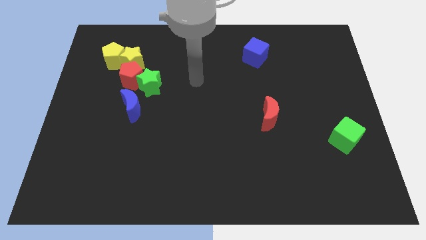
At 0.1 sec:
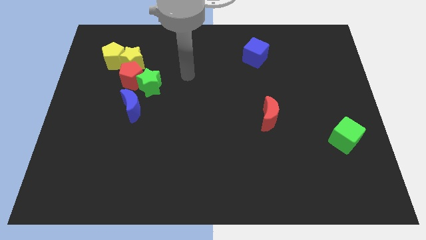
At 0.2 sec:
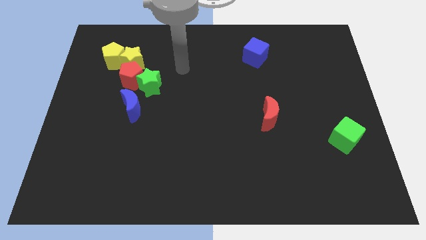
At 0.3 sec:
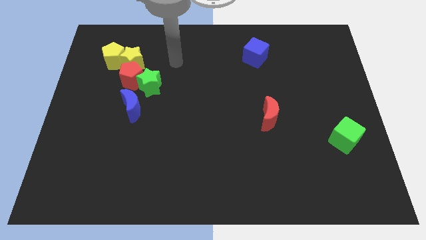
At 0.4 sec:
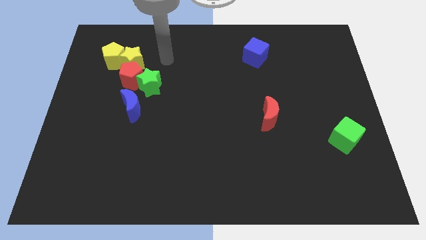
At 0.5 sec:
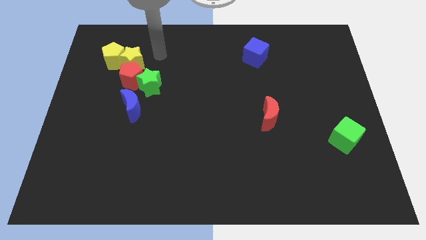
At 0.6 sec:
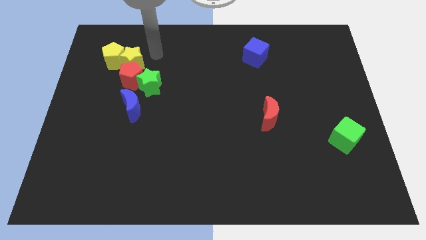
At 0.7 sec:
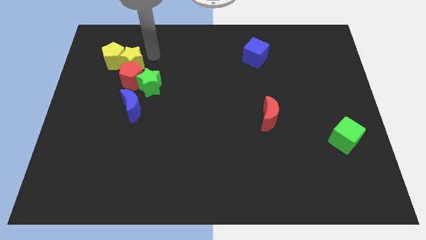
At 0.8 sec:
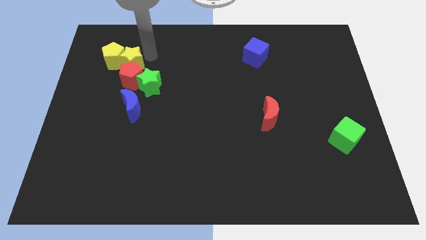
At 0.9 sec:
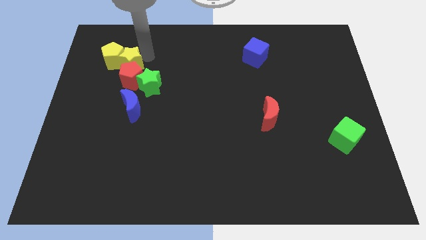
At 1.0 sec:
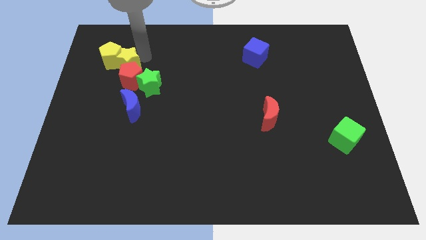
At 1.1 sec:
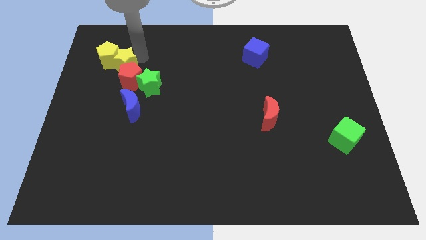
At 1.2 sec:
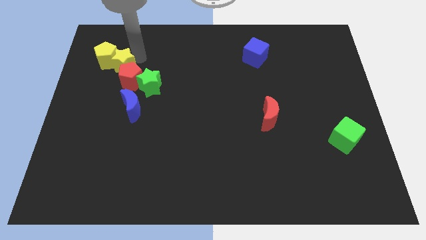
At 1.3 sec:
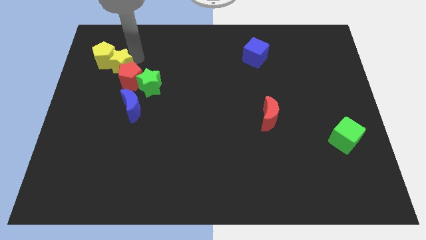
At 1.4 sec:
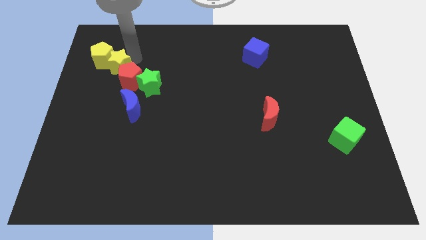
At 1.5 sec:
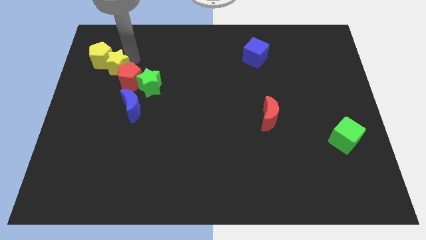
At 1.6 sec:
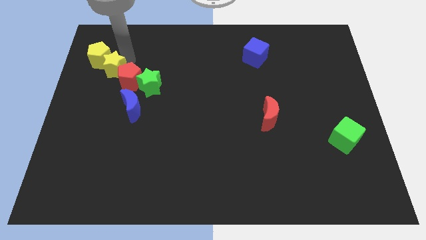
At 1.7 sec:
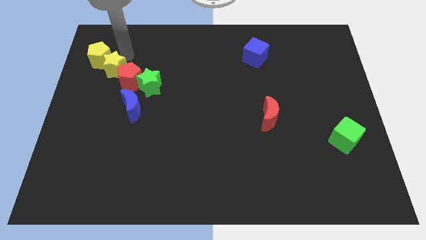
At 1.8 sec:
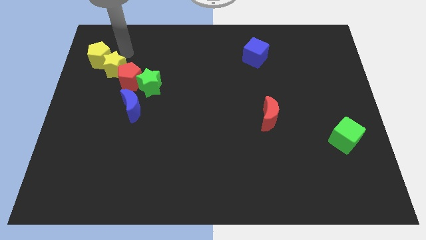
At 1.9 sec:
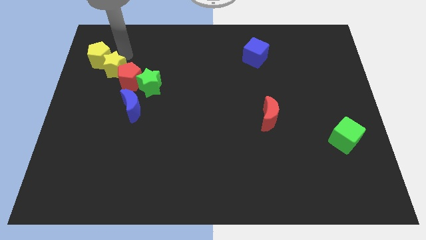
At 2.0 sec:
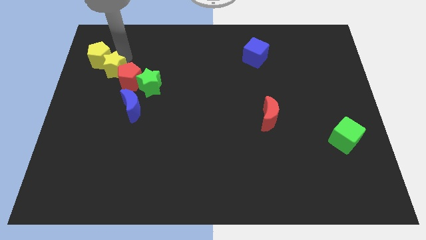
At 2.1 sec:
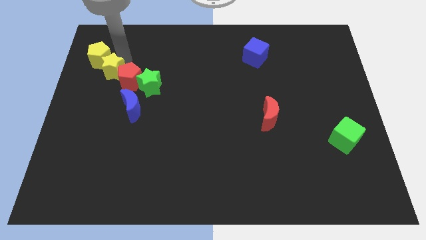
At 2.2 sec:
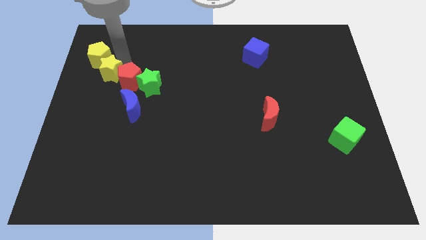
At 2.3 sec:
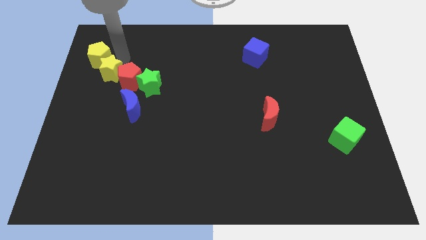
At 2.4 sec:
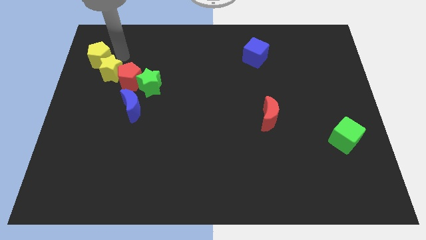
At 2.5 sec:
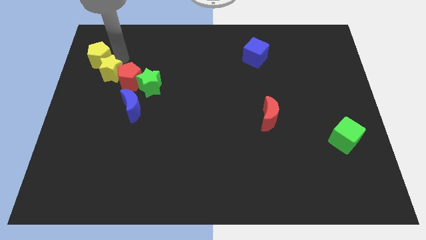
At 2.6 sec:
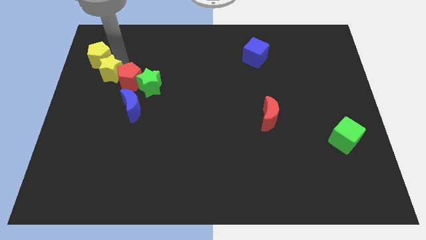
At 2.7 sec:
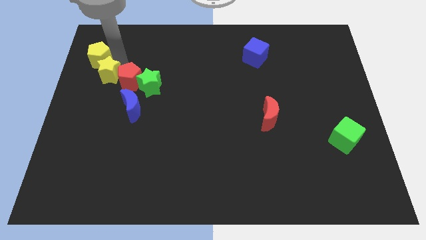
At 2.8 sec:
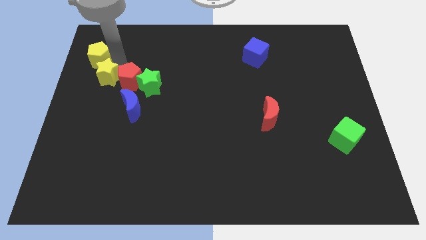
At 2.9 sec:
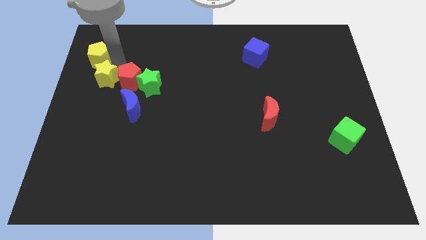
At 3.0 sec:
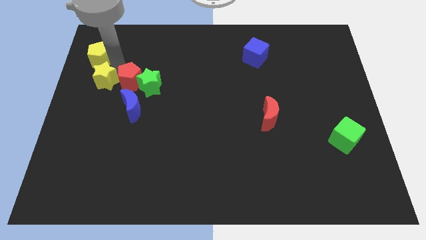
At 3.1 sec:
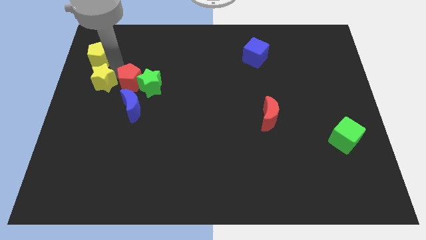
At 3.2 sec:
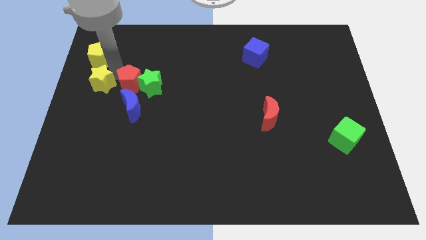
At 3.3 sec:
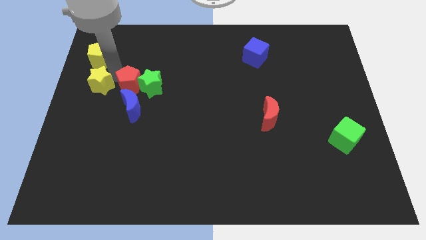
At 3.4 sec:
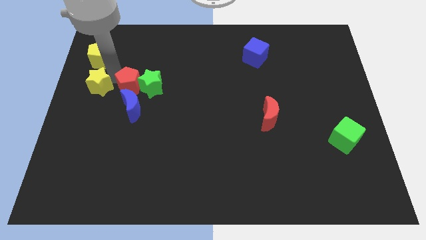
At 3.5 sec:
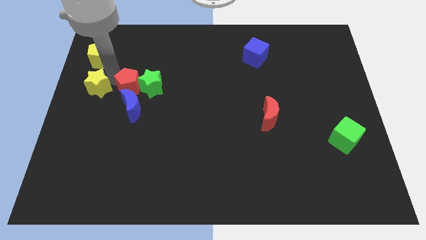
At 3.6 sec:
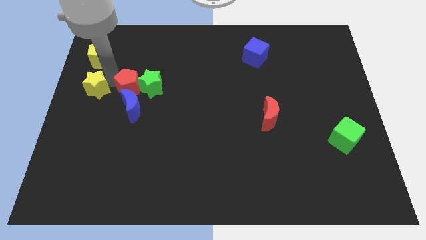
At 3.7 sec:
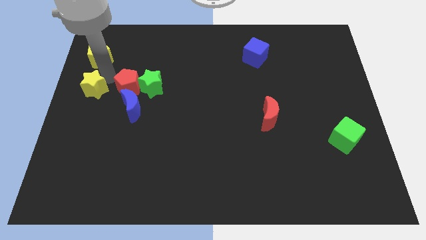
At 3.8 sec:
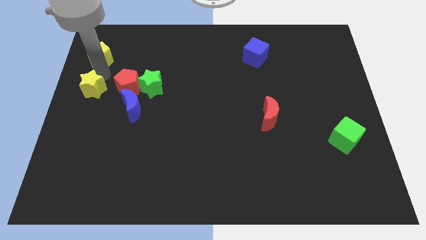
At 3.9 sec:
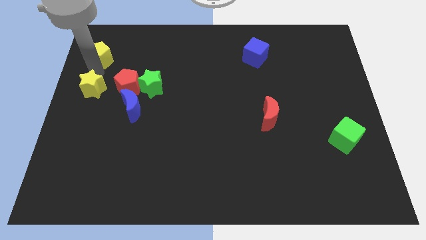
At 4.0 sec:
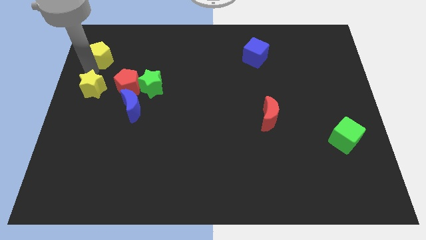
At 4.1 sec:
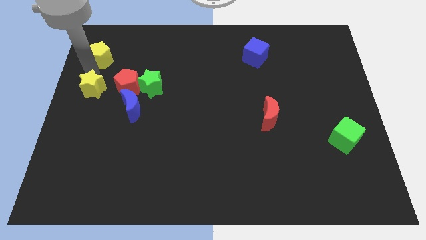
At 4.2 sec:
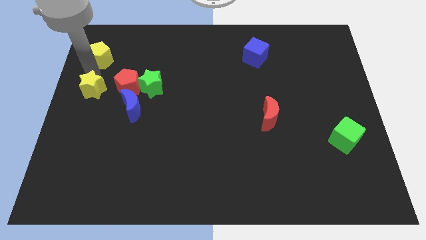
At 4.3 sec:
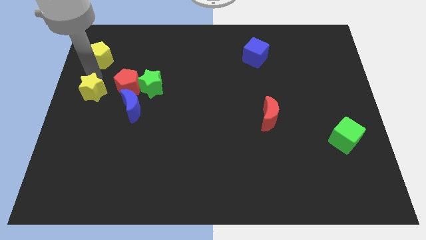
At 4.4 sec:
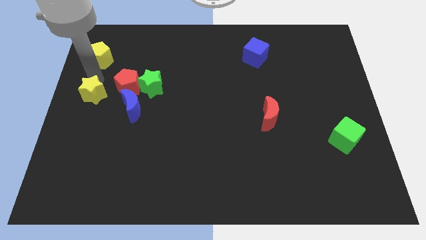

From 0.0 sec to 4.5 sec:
slightly slide the yellow star down

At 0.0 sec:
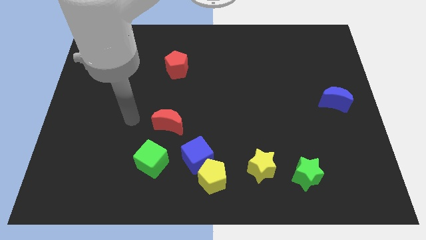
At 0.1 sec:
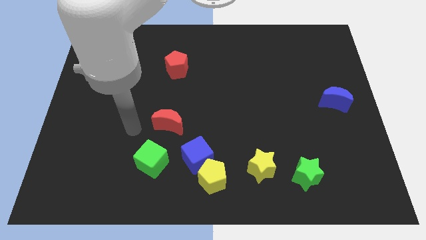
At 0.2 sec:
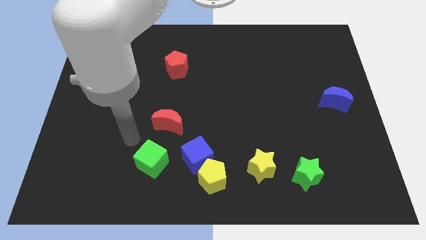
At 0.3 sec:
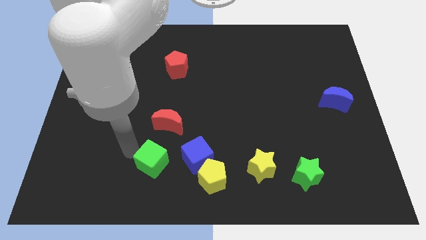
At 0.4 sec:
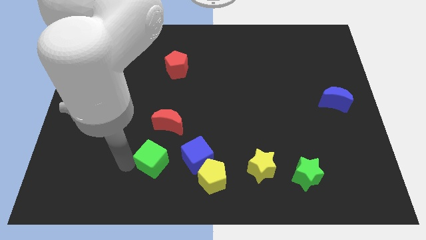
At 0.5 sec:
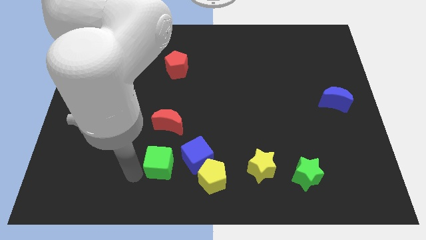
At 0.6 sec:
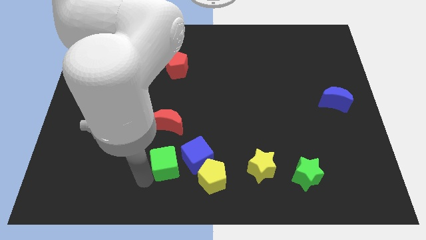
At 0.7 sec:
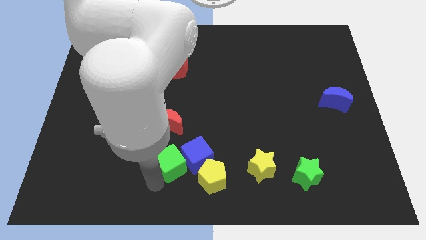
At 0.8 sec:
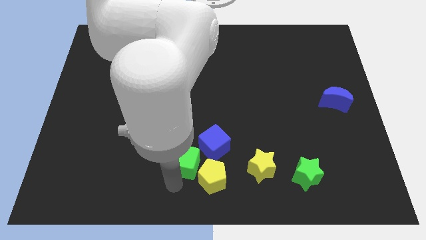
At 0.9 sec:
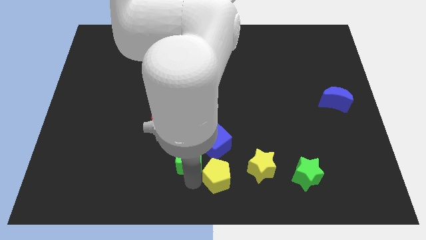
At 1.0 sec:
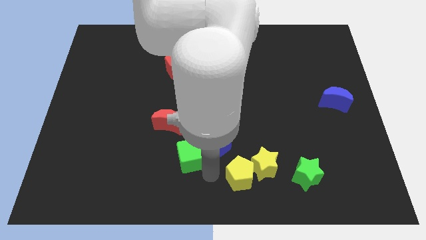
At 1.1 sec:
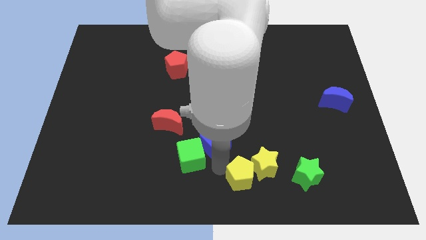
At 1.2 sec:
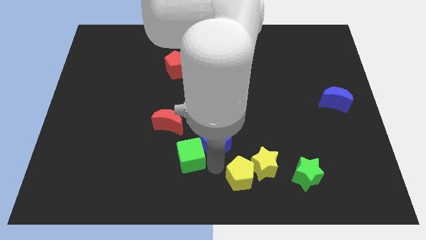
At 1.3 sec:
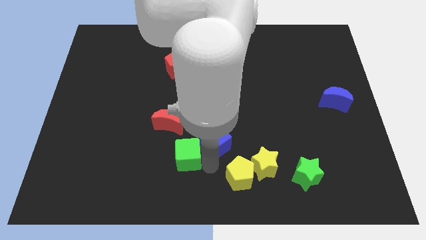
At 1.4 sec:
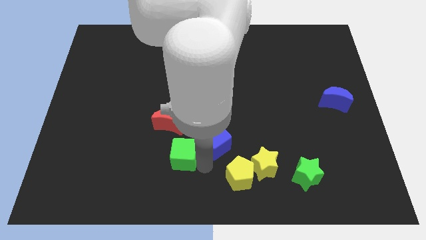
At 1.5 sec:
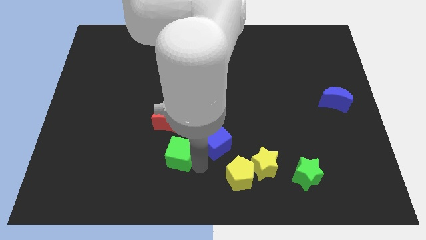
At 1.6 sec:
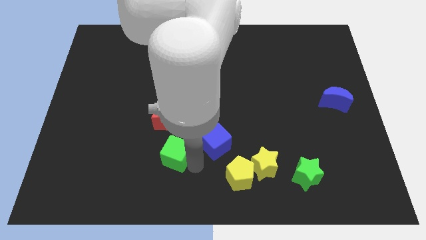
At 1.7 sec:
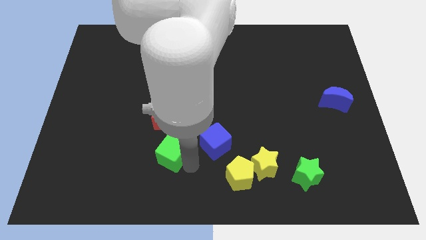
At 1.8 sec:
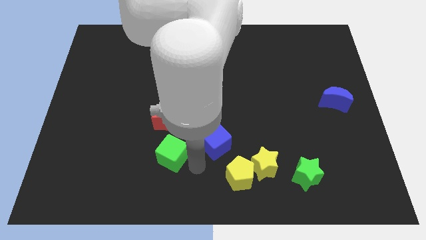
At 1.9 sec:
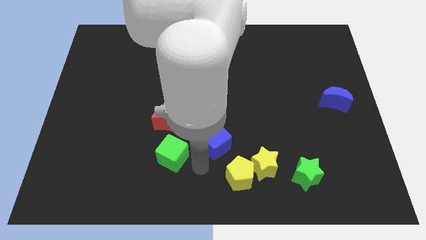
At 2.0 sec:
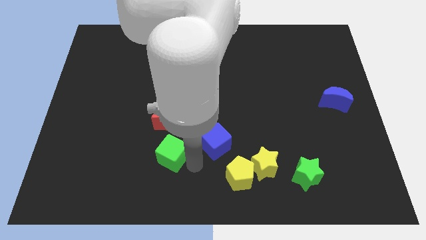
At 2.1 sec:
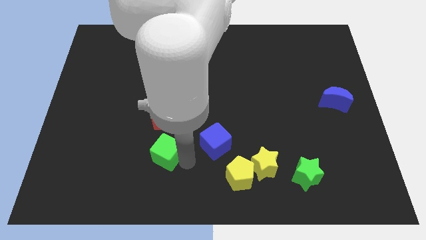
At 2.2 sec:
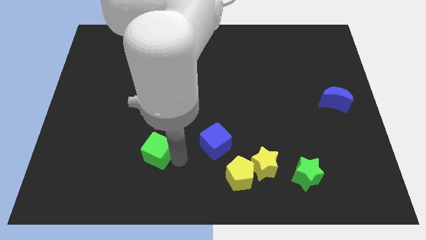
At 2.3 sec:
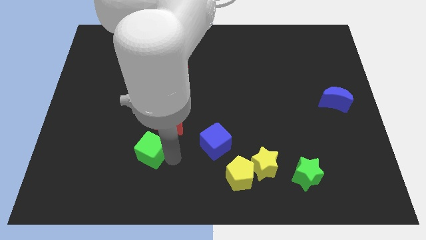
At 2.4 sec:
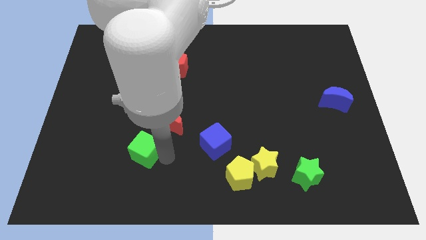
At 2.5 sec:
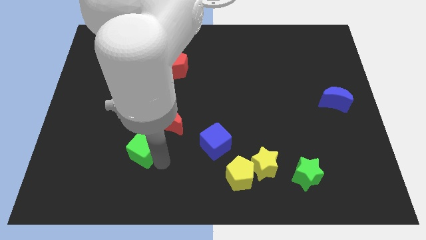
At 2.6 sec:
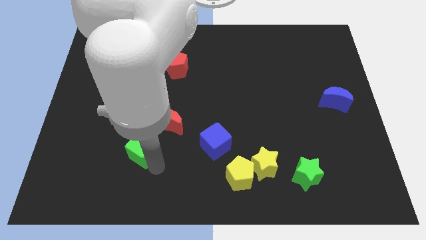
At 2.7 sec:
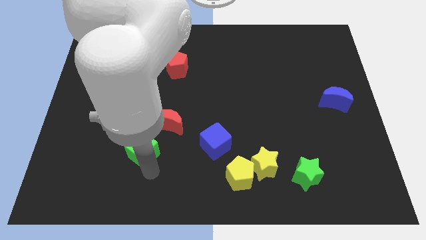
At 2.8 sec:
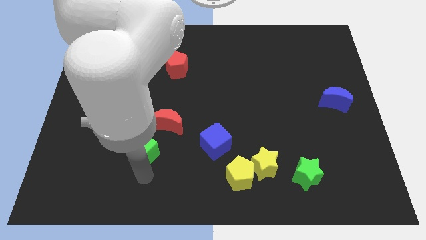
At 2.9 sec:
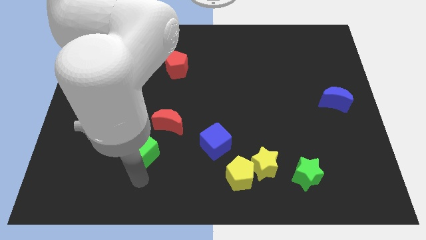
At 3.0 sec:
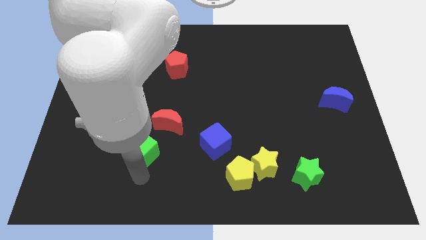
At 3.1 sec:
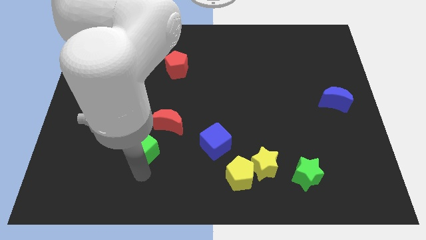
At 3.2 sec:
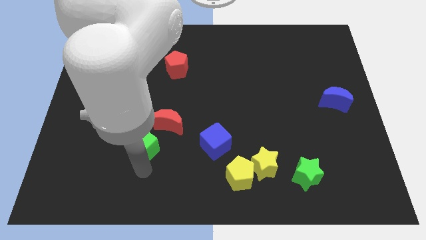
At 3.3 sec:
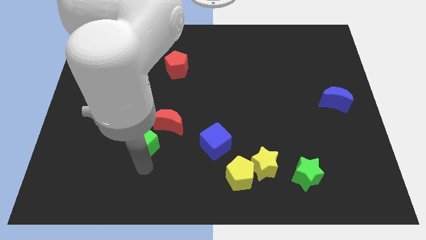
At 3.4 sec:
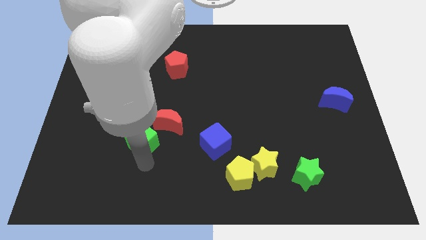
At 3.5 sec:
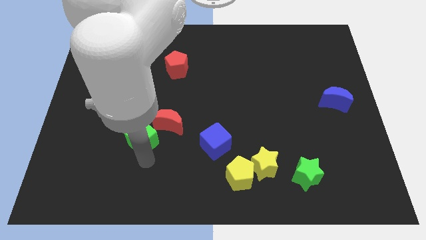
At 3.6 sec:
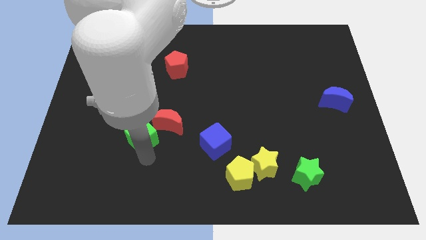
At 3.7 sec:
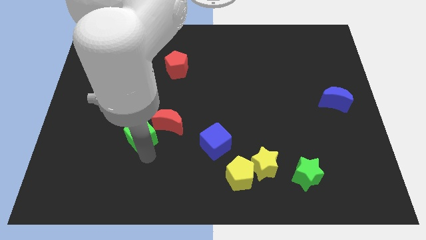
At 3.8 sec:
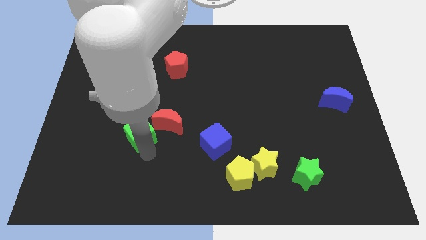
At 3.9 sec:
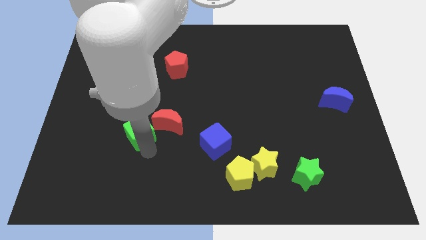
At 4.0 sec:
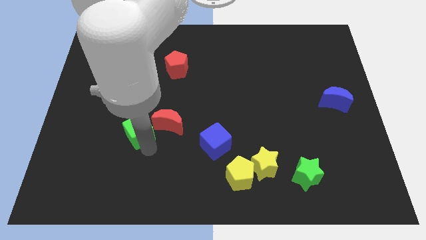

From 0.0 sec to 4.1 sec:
push the green cube up a bit
